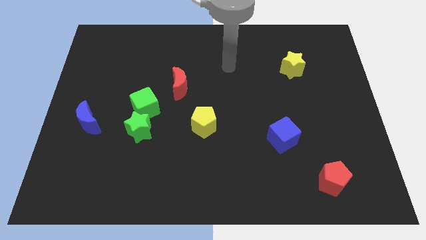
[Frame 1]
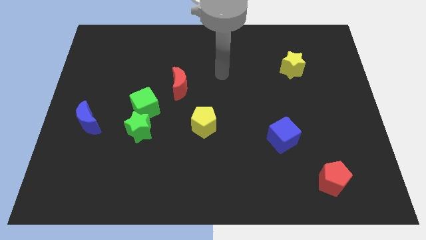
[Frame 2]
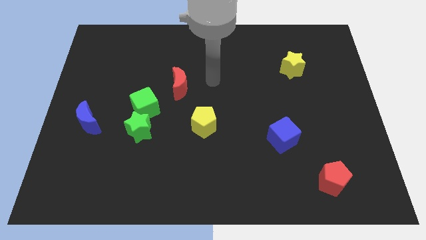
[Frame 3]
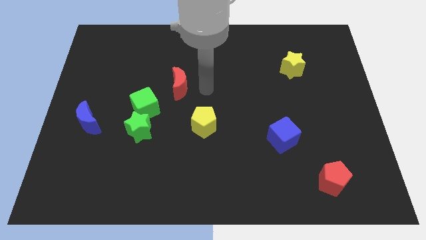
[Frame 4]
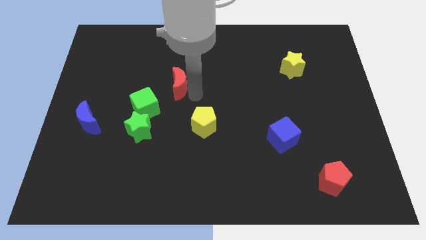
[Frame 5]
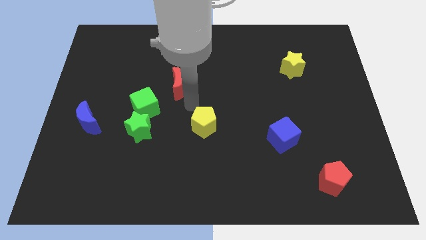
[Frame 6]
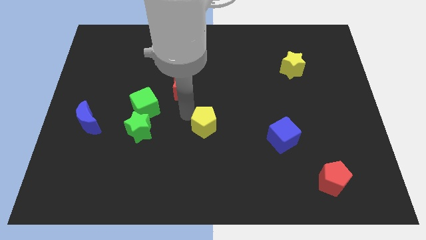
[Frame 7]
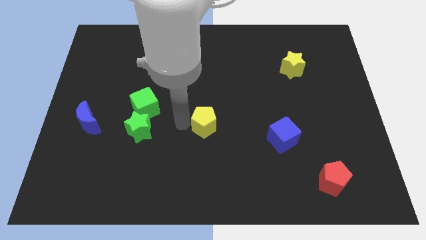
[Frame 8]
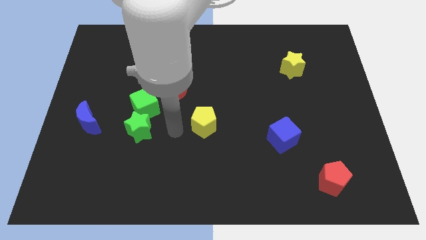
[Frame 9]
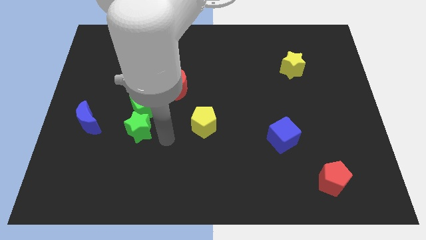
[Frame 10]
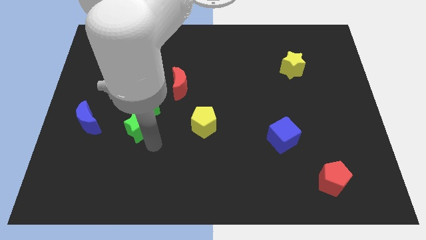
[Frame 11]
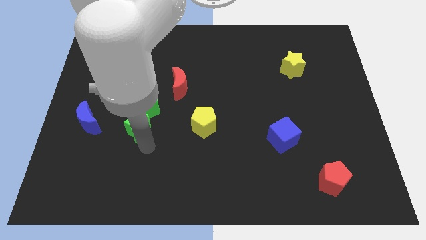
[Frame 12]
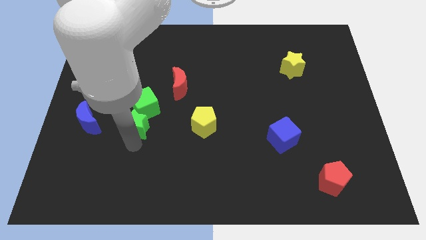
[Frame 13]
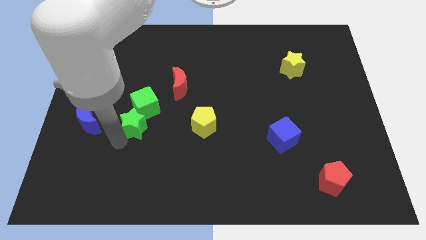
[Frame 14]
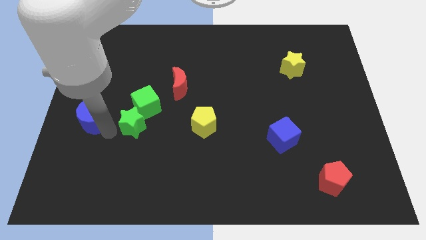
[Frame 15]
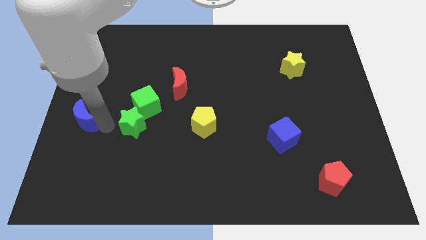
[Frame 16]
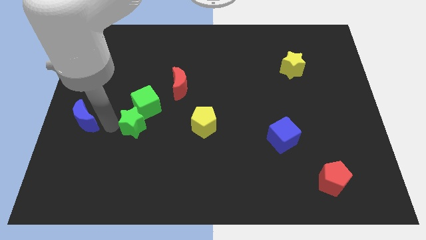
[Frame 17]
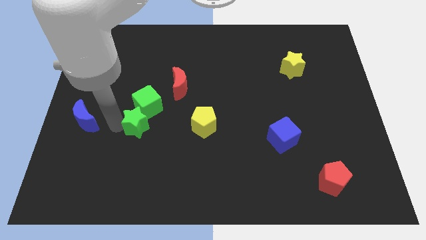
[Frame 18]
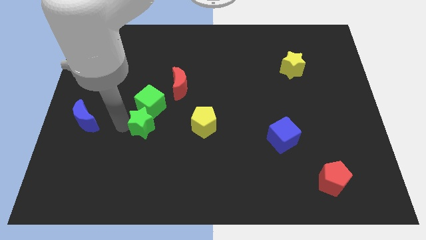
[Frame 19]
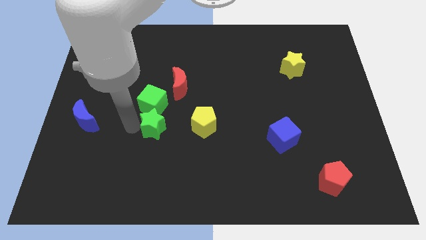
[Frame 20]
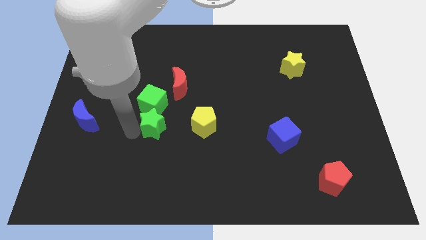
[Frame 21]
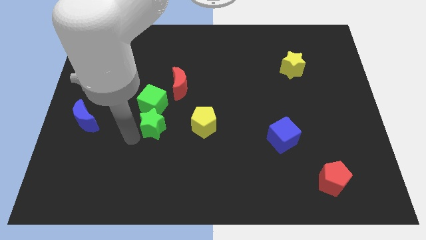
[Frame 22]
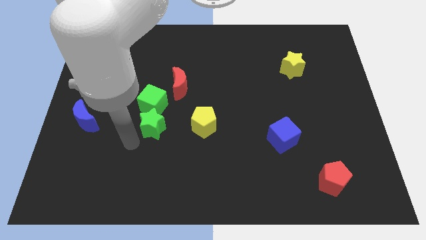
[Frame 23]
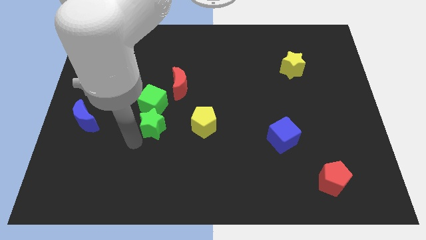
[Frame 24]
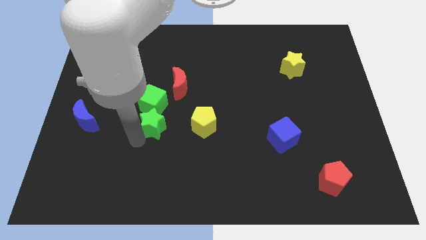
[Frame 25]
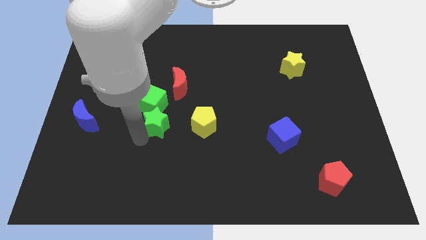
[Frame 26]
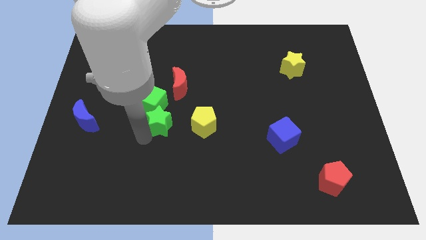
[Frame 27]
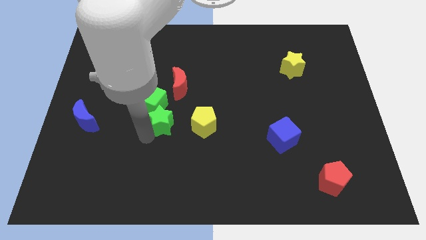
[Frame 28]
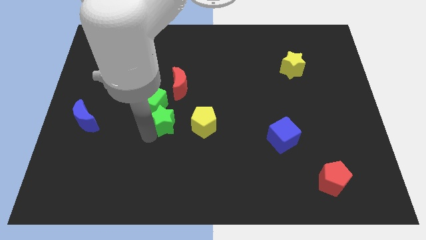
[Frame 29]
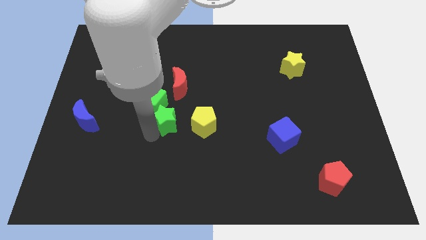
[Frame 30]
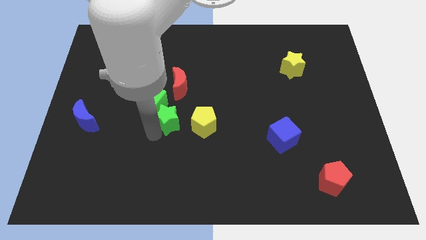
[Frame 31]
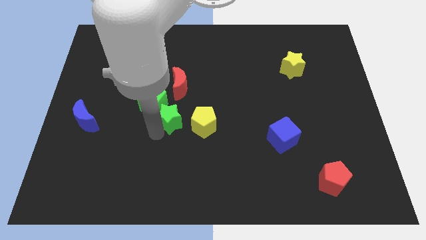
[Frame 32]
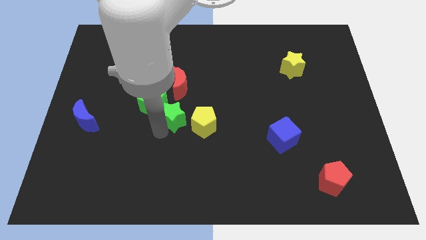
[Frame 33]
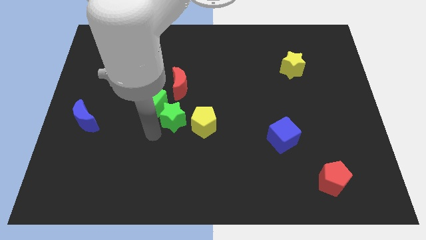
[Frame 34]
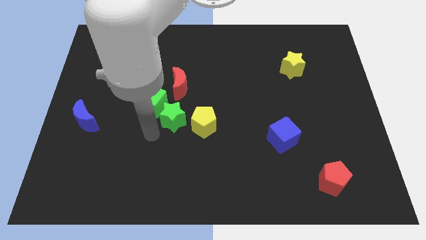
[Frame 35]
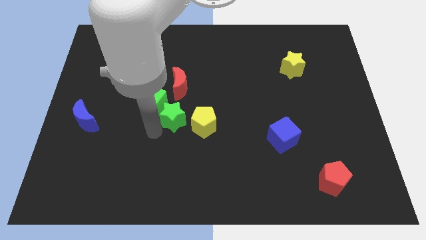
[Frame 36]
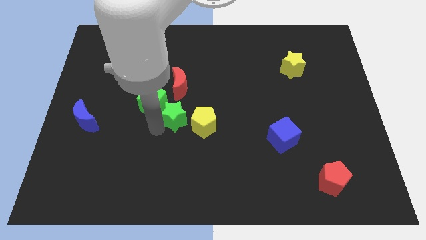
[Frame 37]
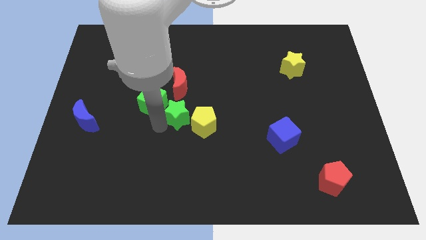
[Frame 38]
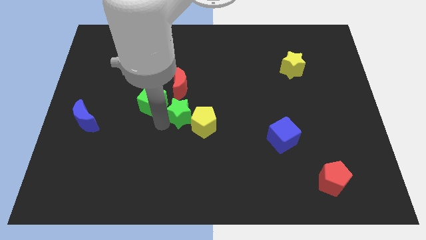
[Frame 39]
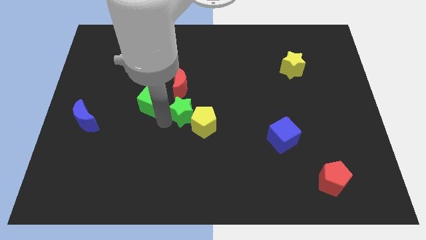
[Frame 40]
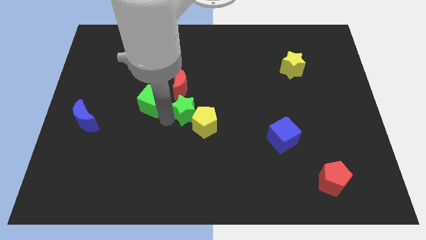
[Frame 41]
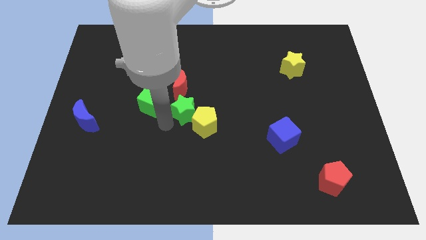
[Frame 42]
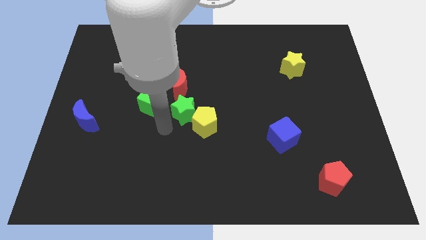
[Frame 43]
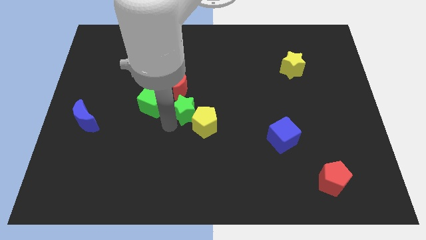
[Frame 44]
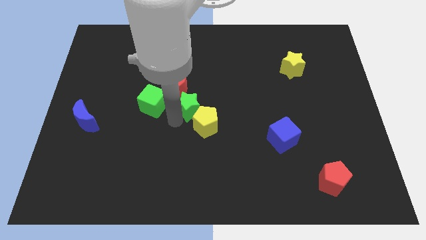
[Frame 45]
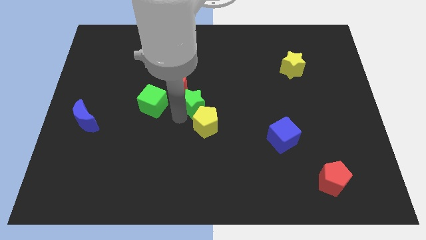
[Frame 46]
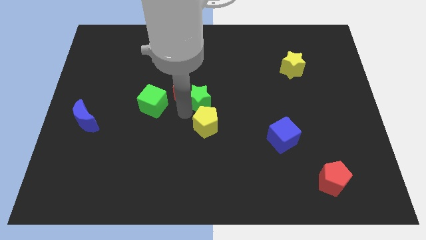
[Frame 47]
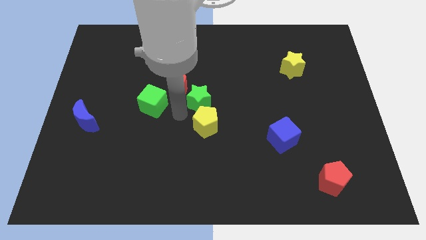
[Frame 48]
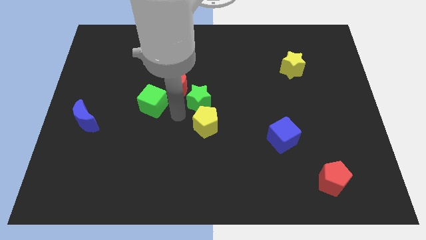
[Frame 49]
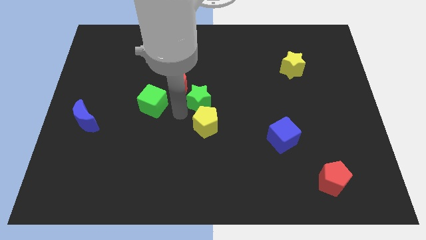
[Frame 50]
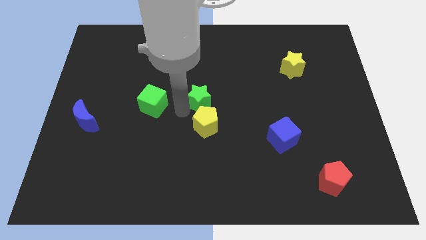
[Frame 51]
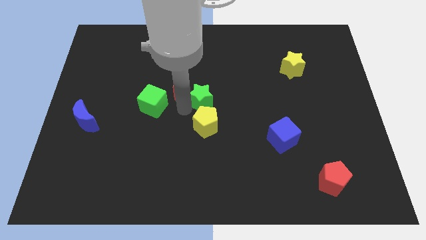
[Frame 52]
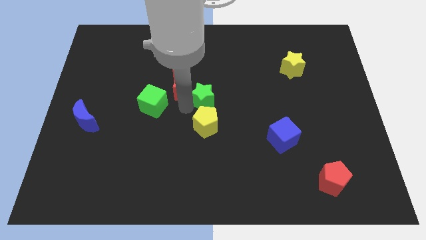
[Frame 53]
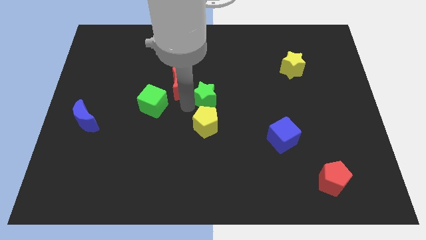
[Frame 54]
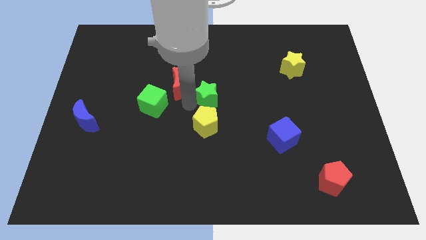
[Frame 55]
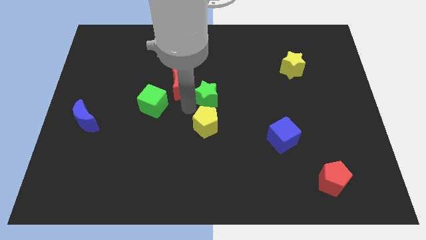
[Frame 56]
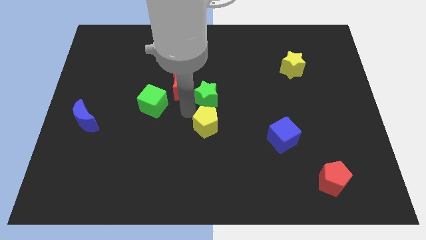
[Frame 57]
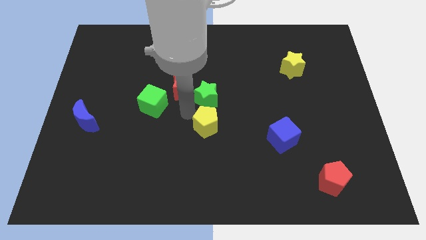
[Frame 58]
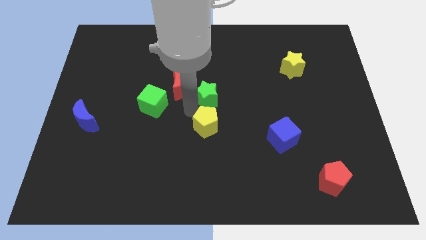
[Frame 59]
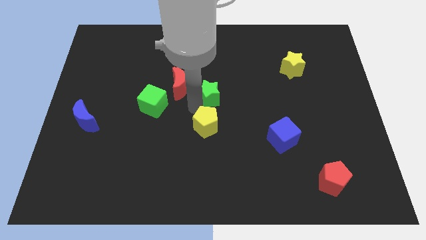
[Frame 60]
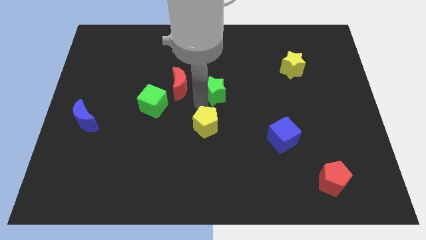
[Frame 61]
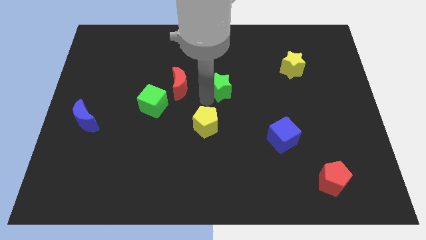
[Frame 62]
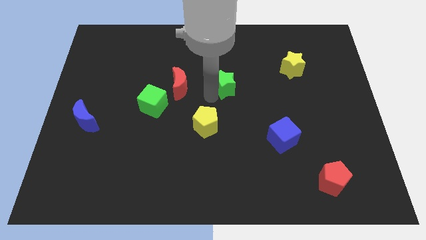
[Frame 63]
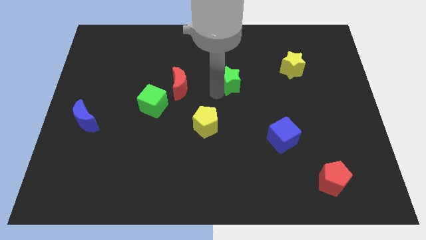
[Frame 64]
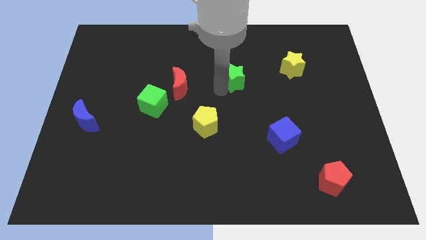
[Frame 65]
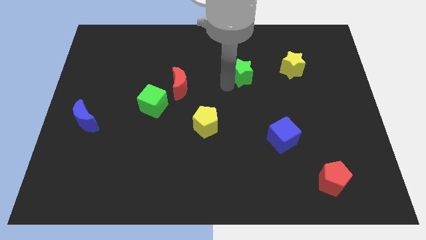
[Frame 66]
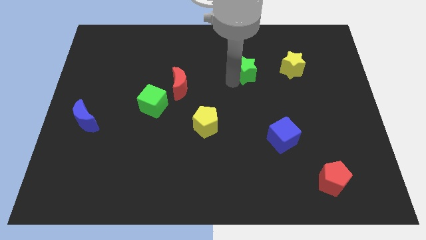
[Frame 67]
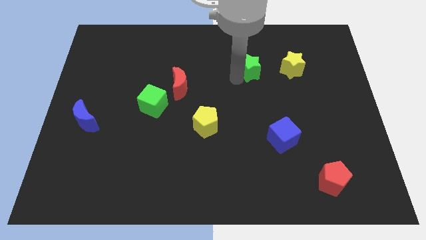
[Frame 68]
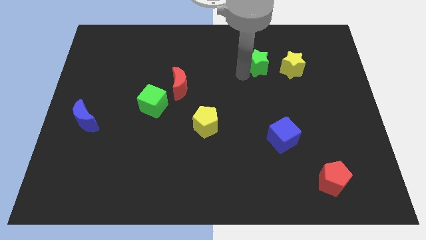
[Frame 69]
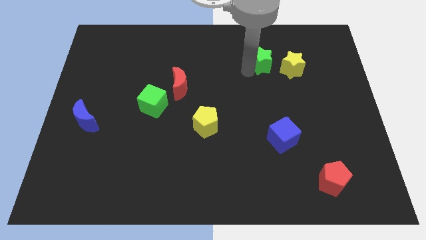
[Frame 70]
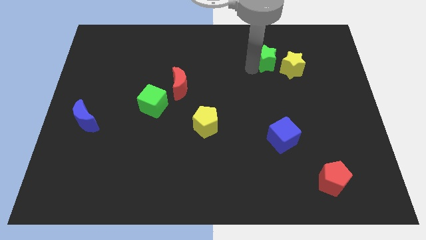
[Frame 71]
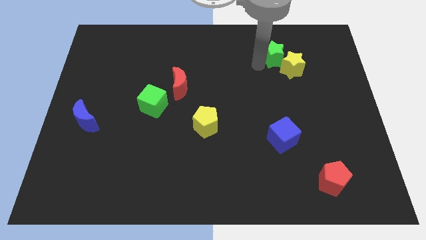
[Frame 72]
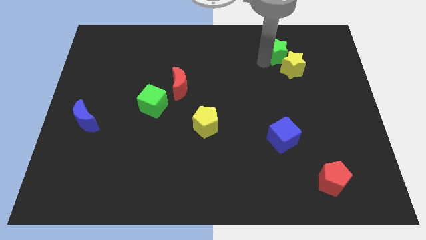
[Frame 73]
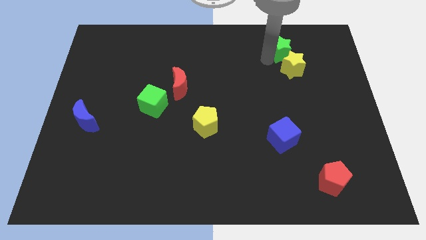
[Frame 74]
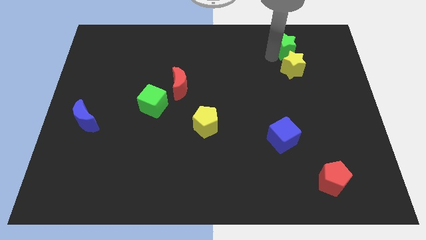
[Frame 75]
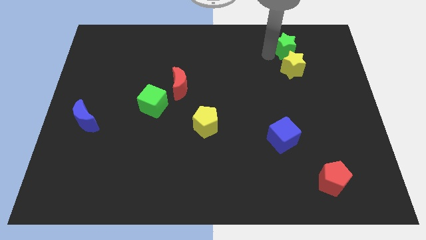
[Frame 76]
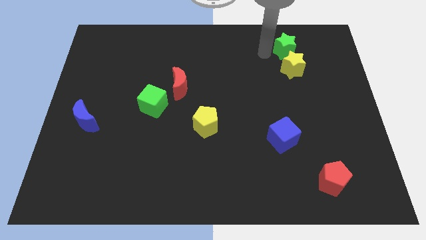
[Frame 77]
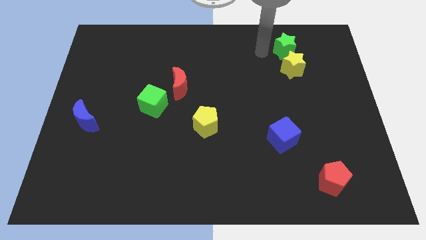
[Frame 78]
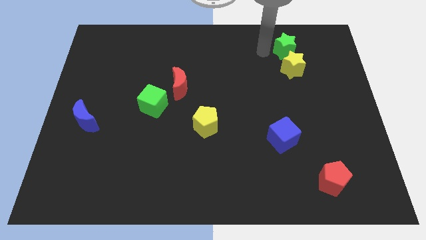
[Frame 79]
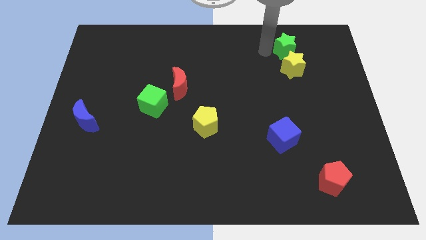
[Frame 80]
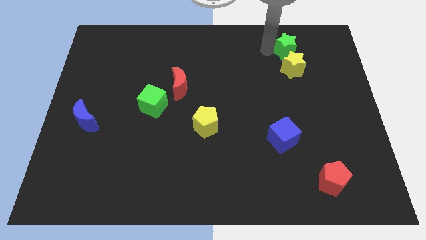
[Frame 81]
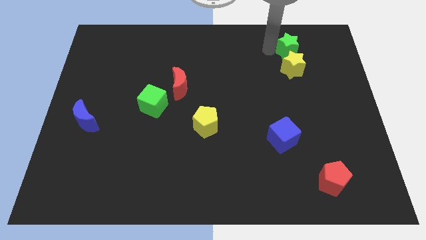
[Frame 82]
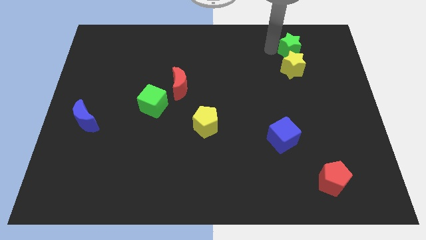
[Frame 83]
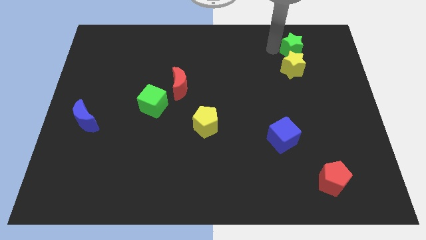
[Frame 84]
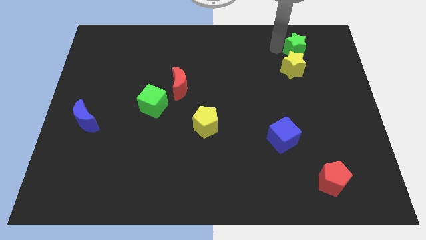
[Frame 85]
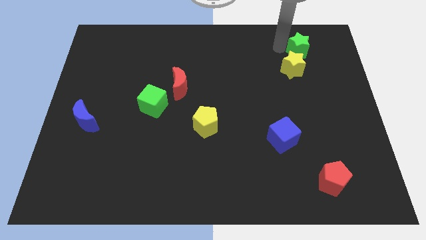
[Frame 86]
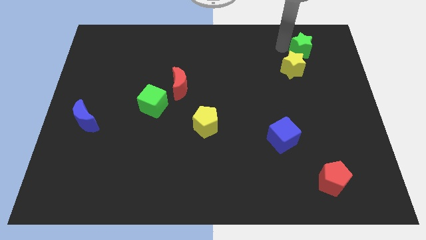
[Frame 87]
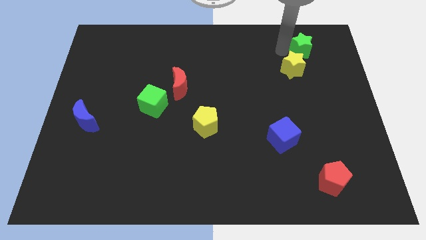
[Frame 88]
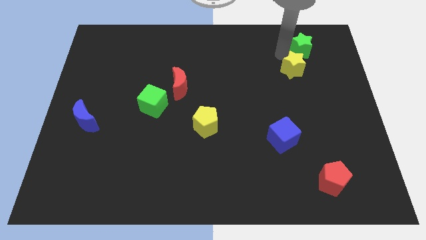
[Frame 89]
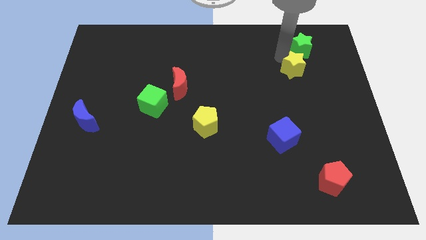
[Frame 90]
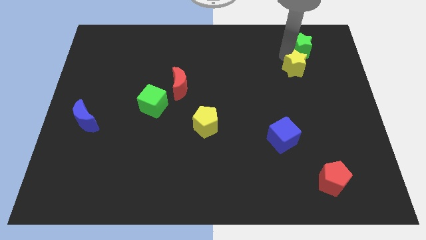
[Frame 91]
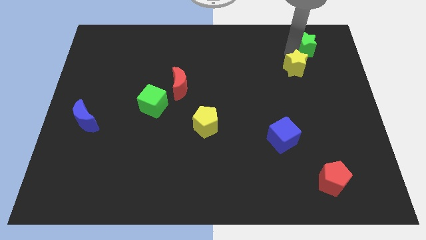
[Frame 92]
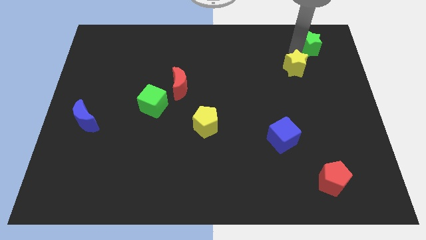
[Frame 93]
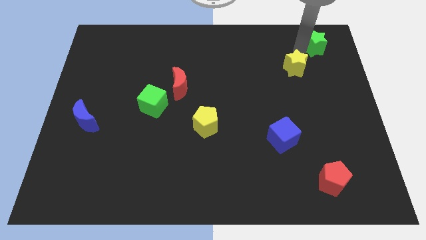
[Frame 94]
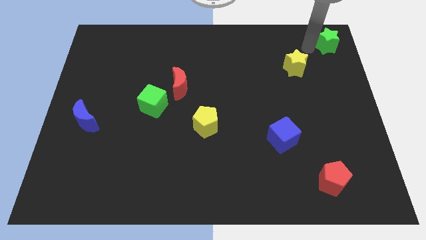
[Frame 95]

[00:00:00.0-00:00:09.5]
push the green star to the top right of the board
